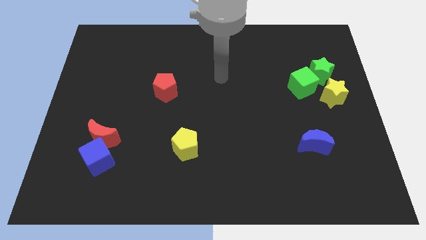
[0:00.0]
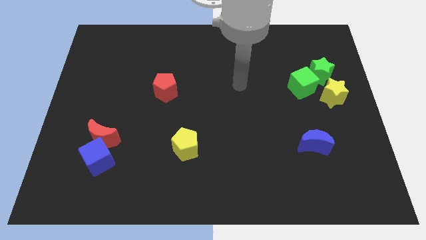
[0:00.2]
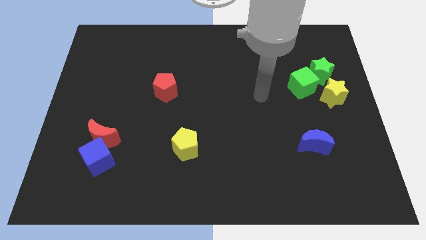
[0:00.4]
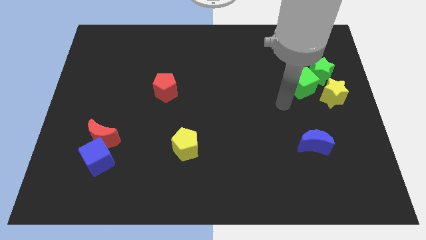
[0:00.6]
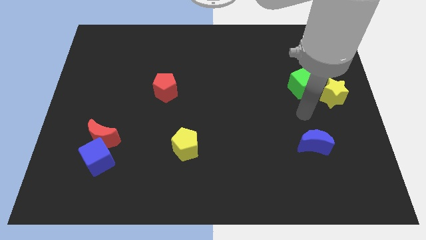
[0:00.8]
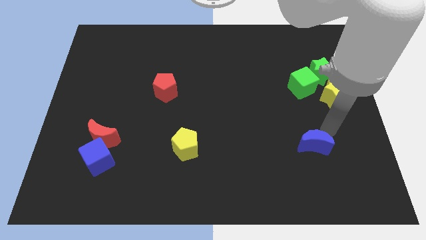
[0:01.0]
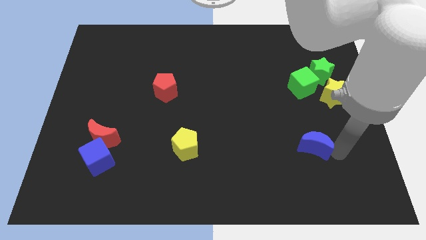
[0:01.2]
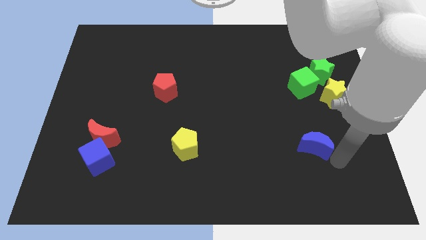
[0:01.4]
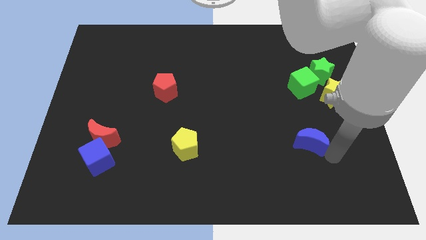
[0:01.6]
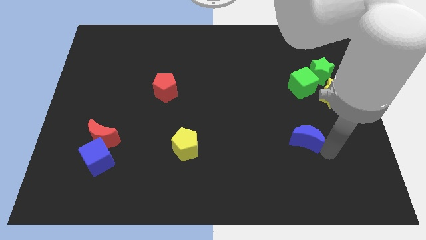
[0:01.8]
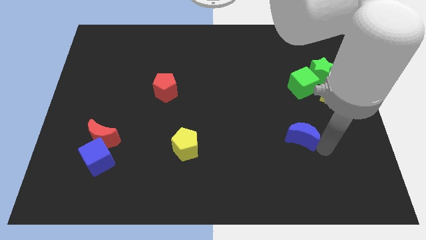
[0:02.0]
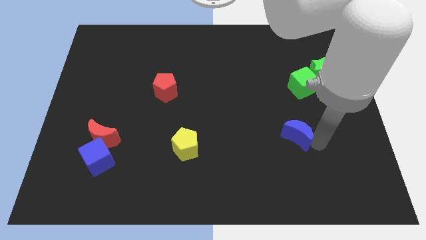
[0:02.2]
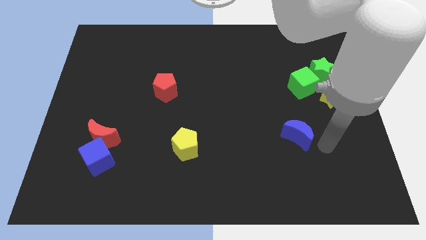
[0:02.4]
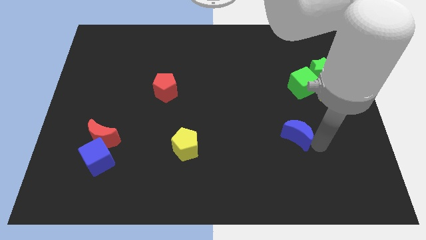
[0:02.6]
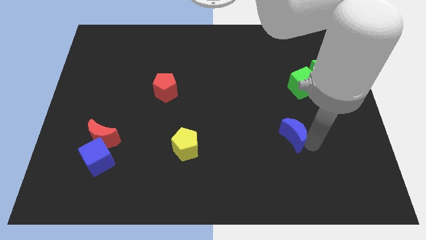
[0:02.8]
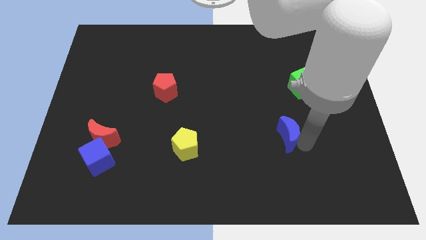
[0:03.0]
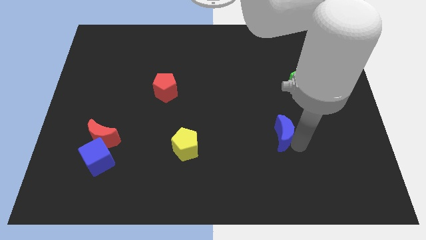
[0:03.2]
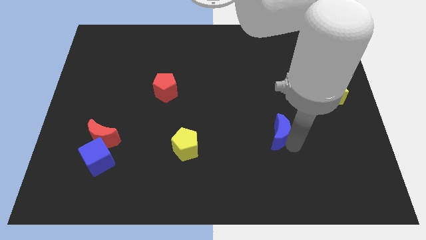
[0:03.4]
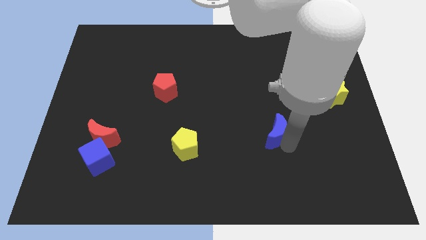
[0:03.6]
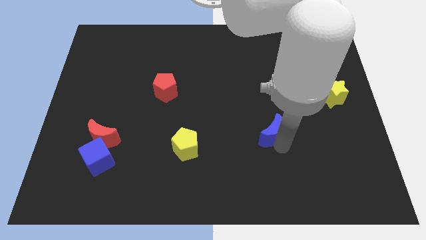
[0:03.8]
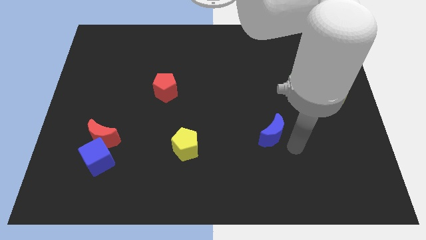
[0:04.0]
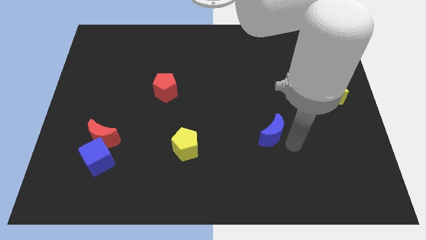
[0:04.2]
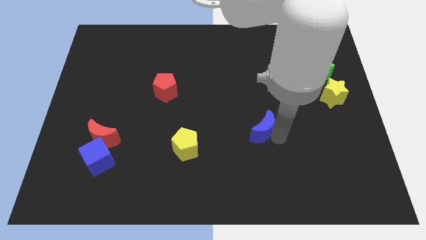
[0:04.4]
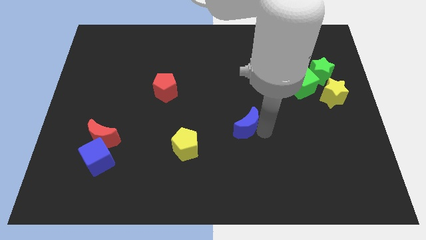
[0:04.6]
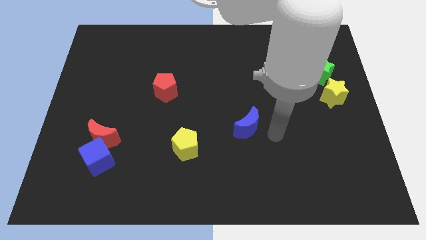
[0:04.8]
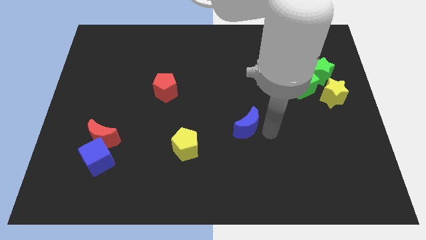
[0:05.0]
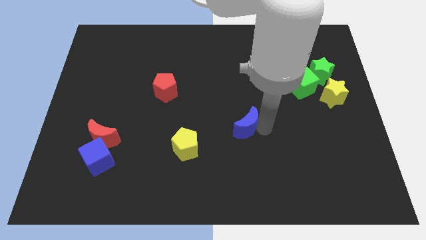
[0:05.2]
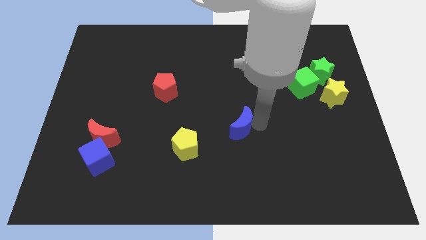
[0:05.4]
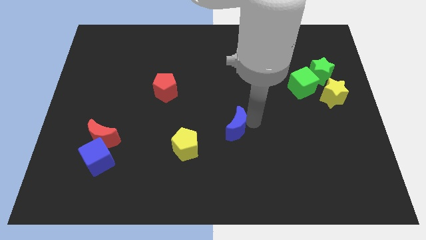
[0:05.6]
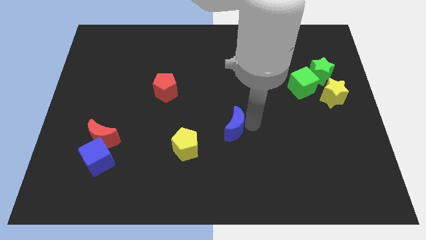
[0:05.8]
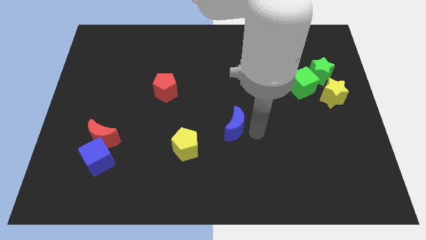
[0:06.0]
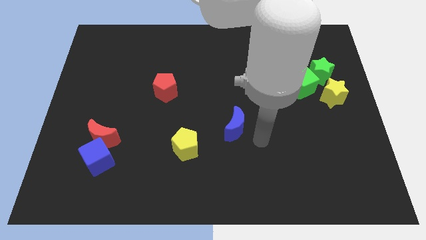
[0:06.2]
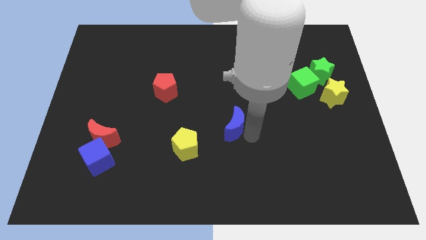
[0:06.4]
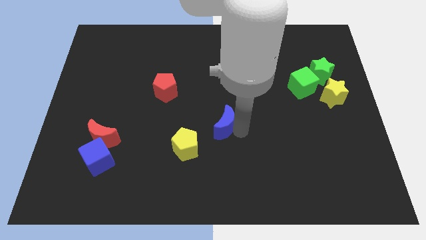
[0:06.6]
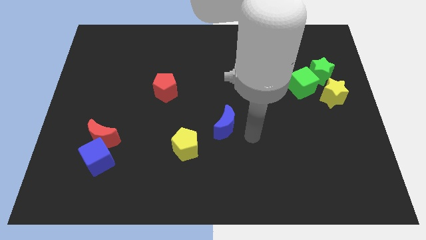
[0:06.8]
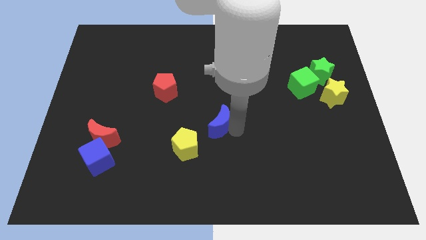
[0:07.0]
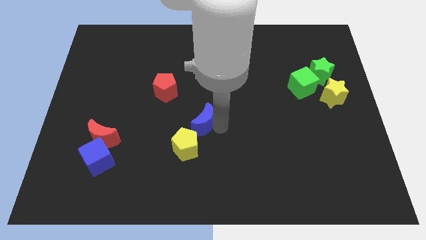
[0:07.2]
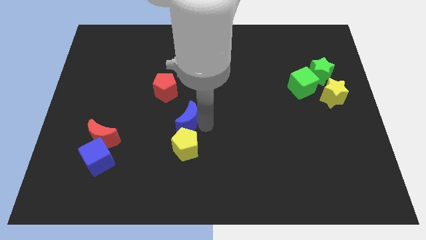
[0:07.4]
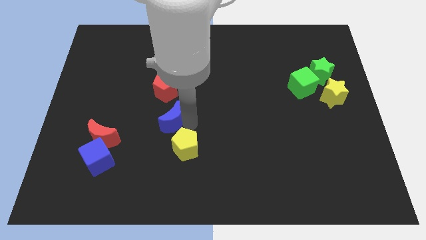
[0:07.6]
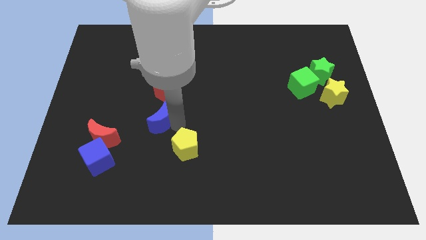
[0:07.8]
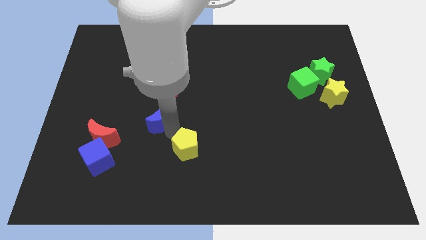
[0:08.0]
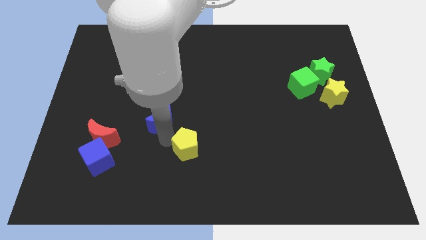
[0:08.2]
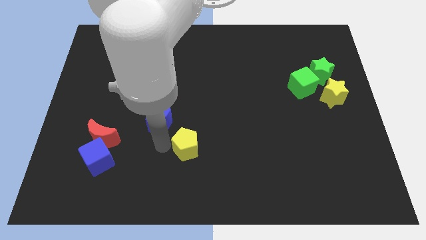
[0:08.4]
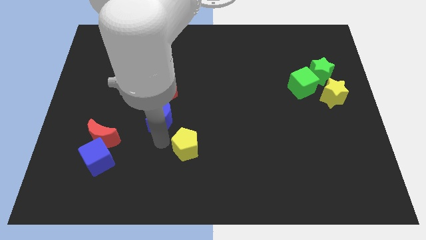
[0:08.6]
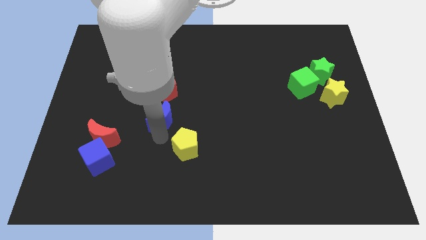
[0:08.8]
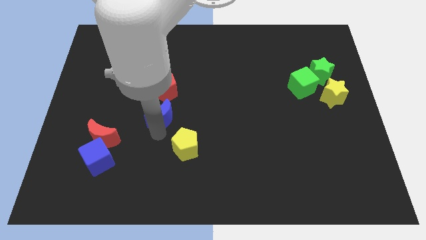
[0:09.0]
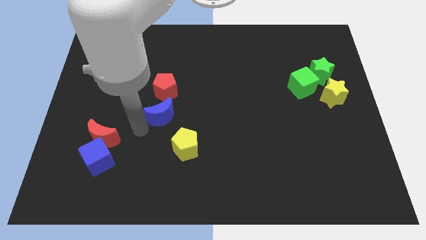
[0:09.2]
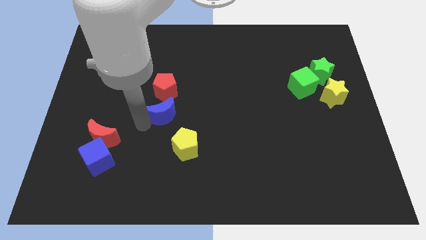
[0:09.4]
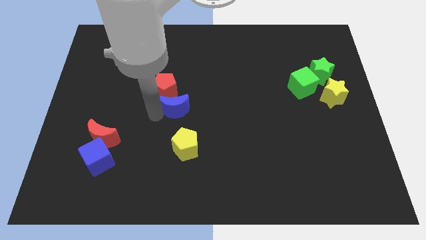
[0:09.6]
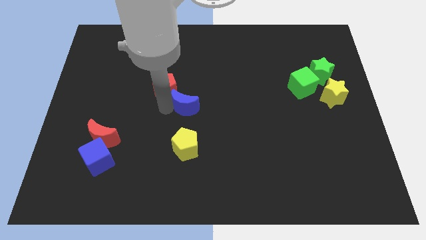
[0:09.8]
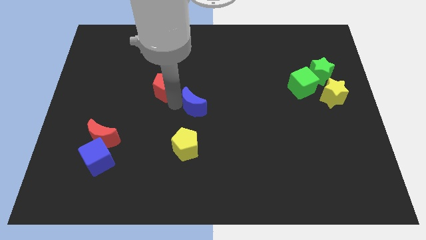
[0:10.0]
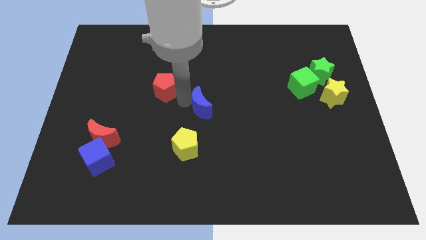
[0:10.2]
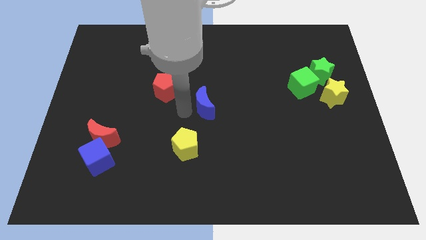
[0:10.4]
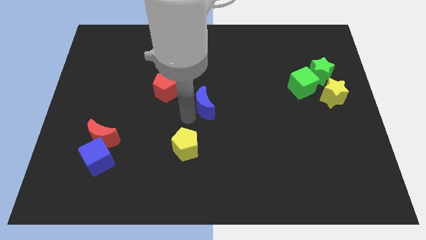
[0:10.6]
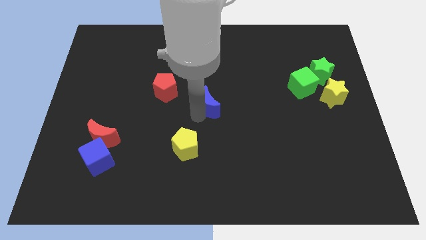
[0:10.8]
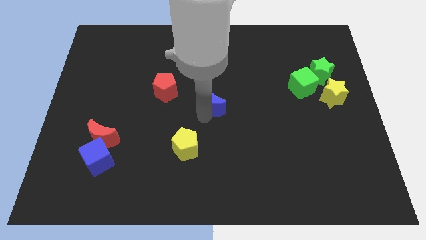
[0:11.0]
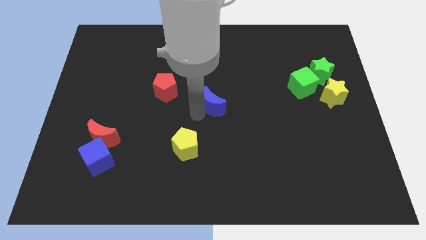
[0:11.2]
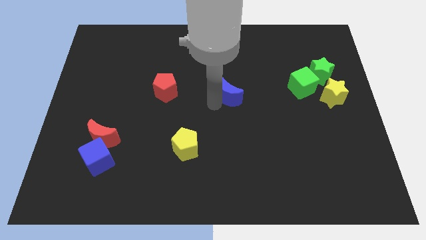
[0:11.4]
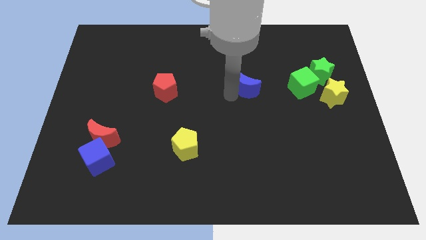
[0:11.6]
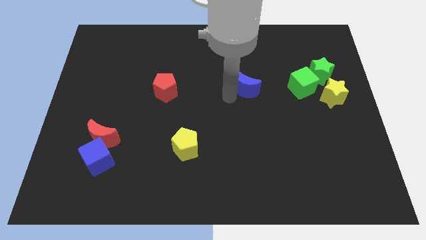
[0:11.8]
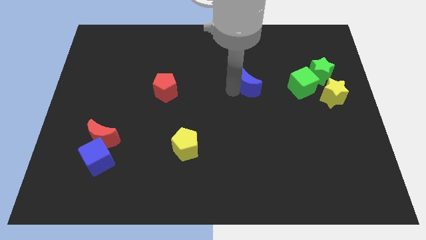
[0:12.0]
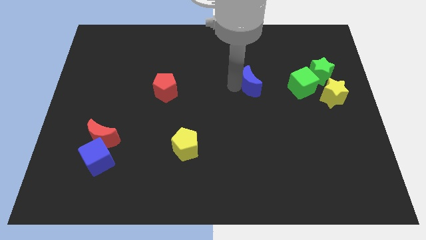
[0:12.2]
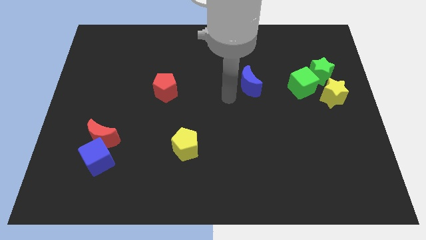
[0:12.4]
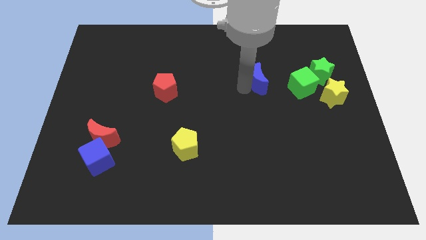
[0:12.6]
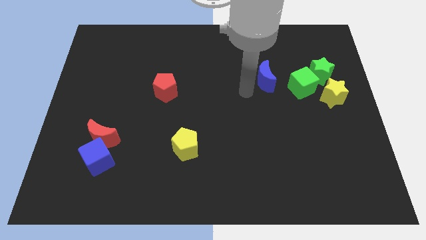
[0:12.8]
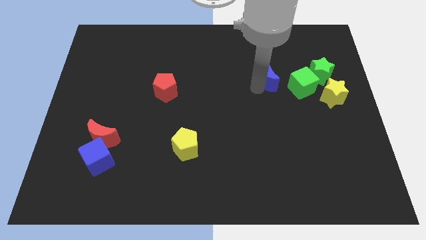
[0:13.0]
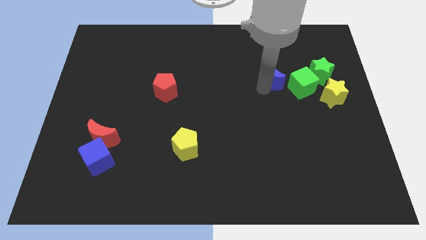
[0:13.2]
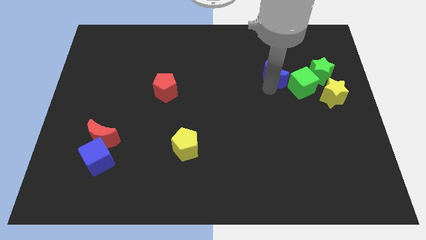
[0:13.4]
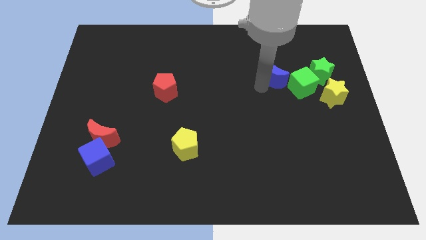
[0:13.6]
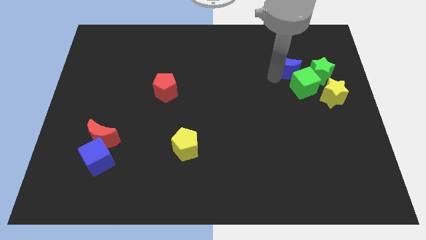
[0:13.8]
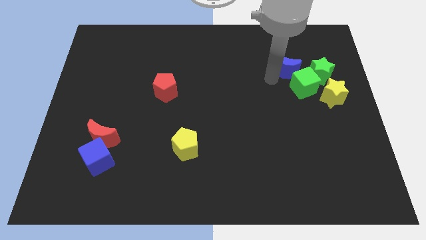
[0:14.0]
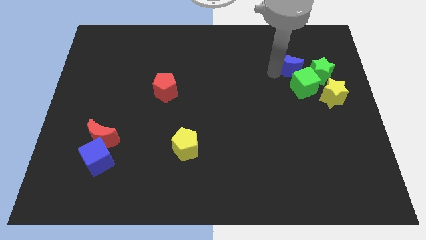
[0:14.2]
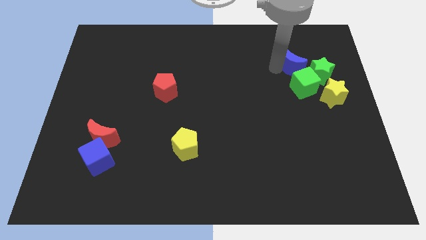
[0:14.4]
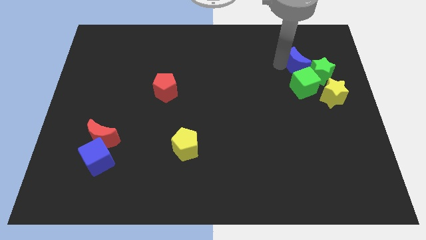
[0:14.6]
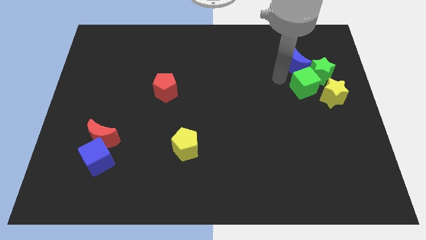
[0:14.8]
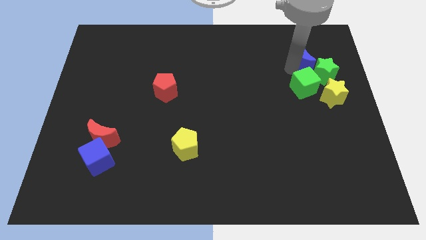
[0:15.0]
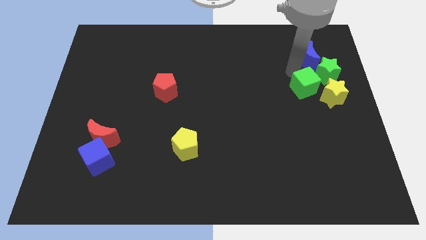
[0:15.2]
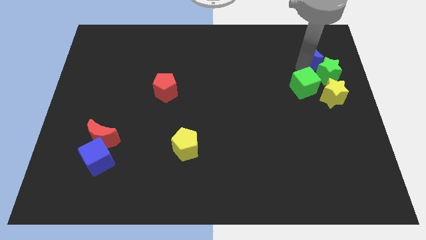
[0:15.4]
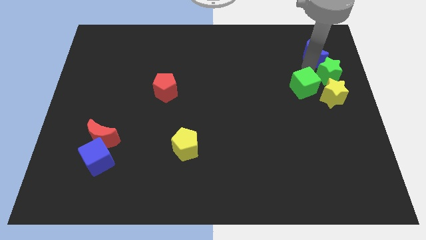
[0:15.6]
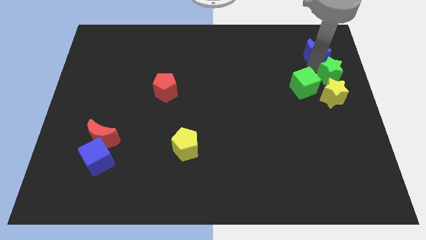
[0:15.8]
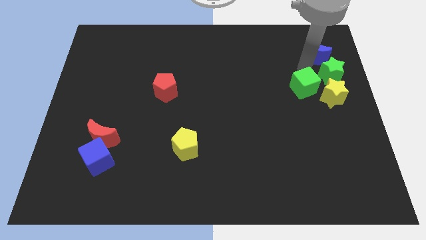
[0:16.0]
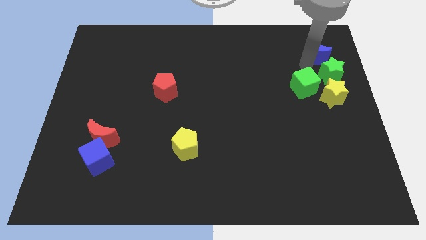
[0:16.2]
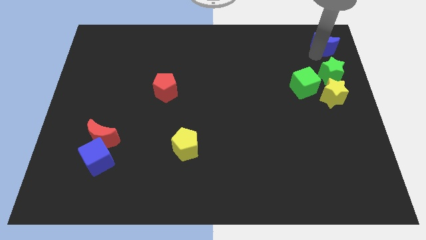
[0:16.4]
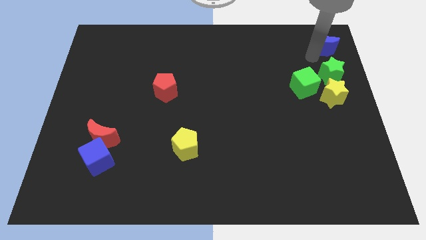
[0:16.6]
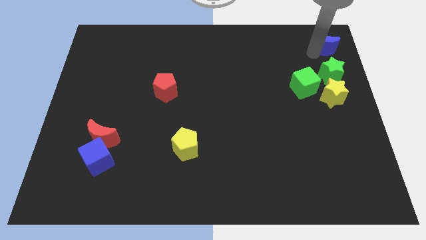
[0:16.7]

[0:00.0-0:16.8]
slide the blue moon to the top right
